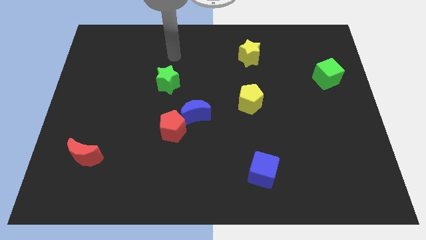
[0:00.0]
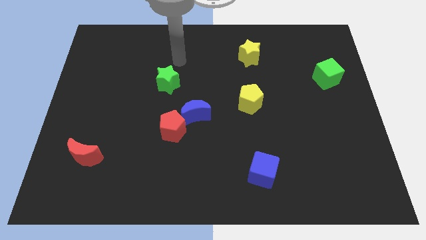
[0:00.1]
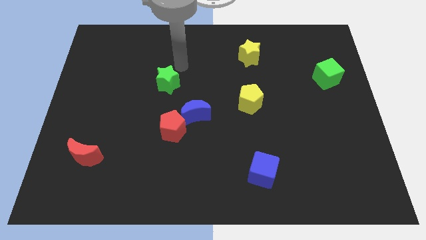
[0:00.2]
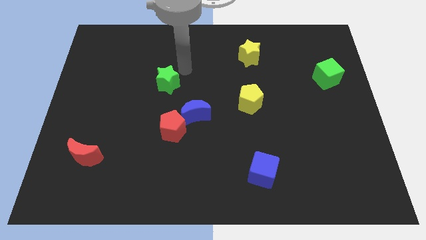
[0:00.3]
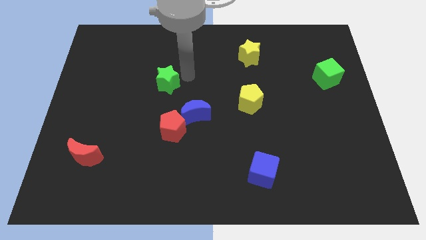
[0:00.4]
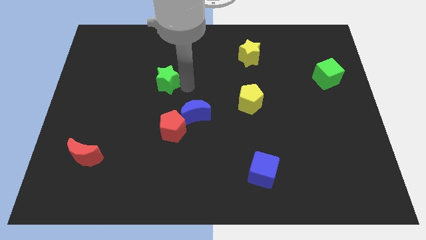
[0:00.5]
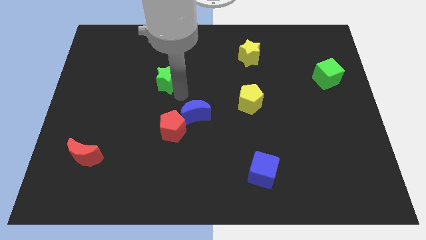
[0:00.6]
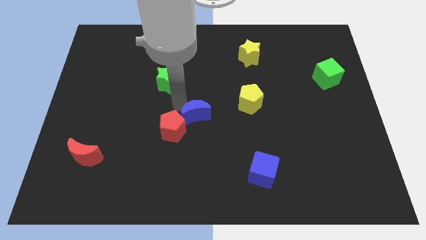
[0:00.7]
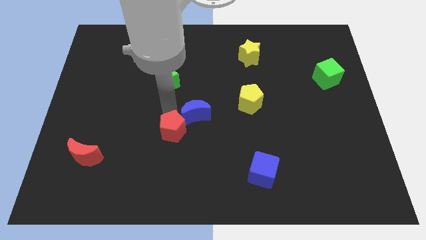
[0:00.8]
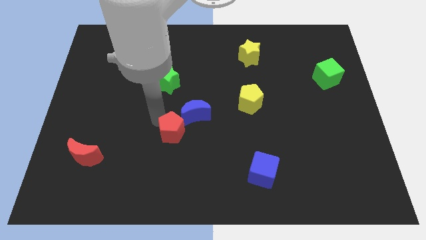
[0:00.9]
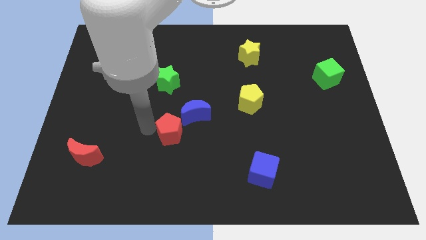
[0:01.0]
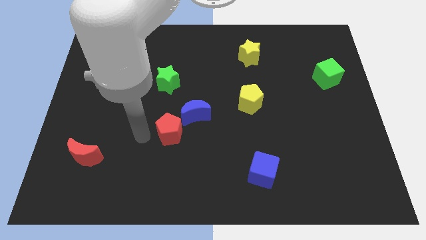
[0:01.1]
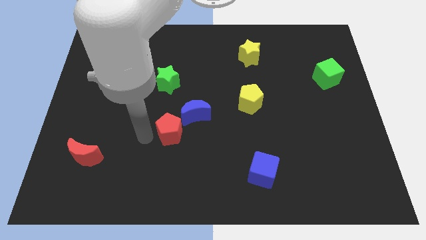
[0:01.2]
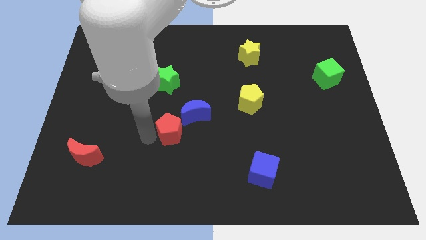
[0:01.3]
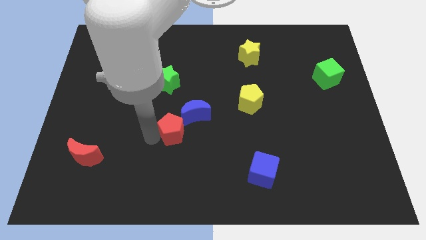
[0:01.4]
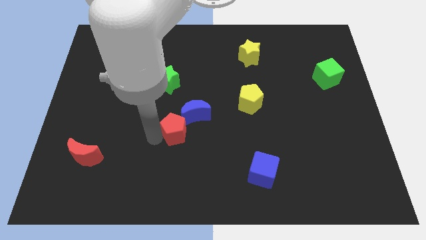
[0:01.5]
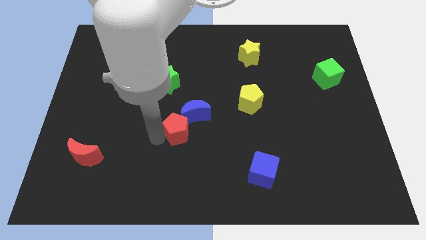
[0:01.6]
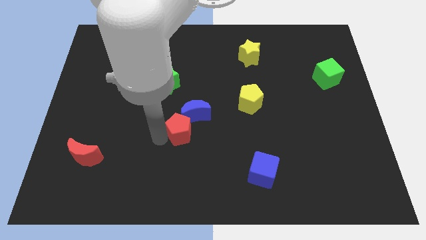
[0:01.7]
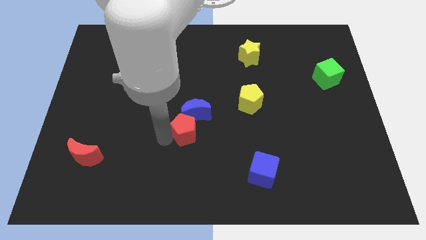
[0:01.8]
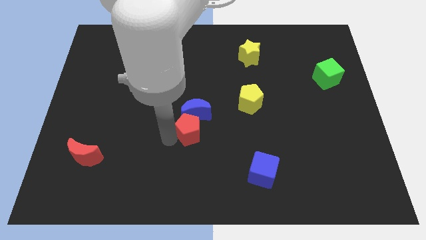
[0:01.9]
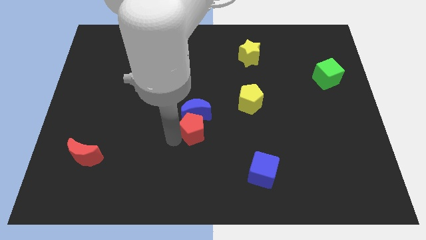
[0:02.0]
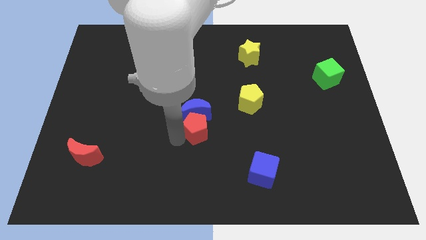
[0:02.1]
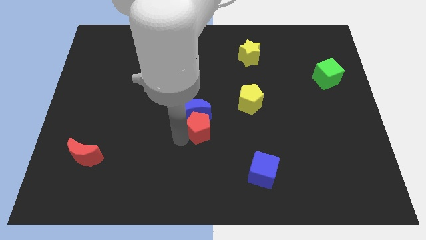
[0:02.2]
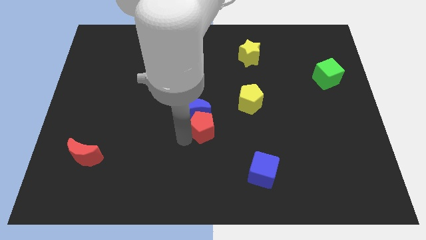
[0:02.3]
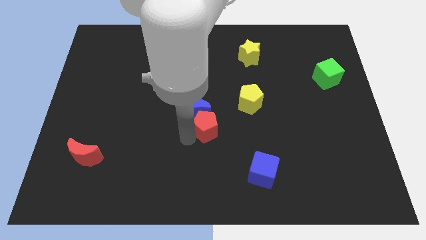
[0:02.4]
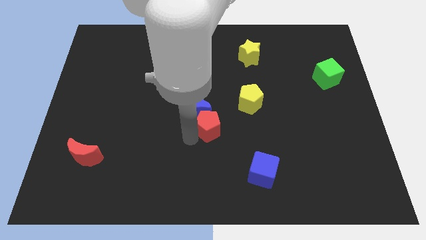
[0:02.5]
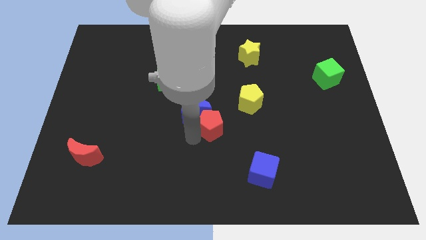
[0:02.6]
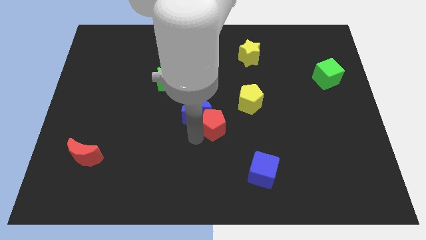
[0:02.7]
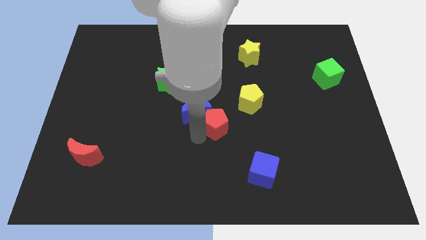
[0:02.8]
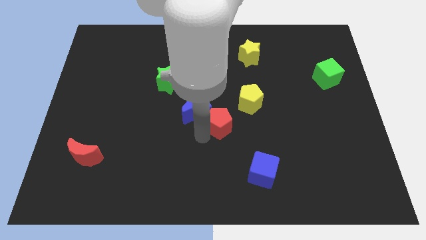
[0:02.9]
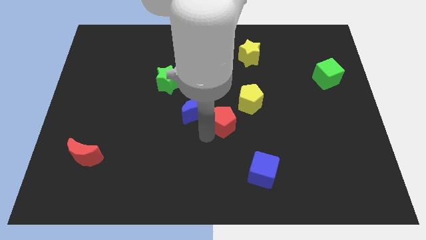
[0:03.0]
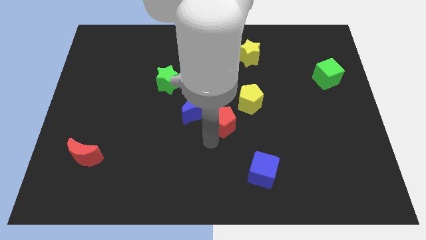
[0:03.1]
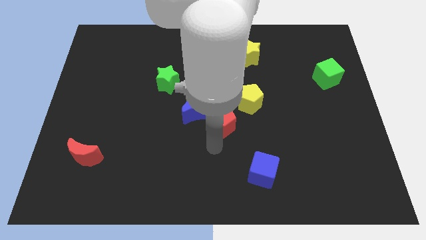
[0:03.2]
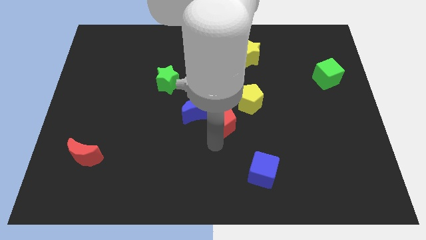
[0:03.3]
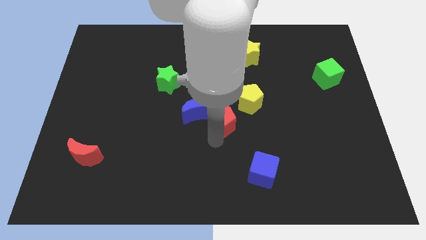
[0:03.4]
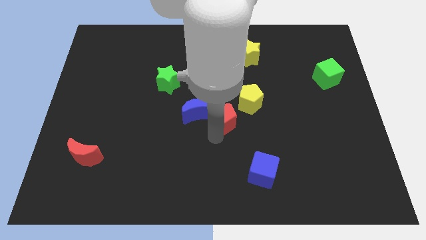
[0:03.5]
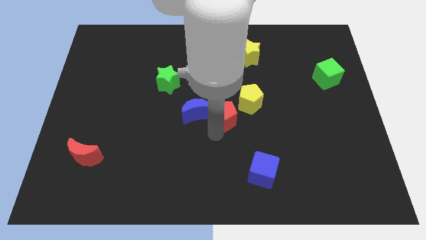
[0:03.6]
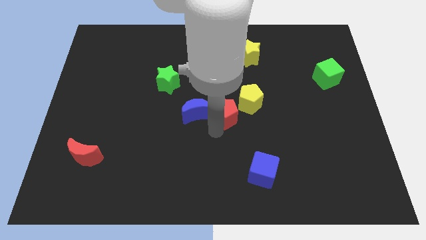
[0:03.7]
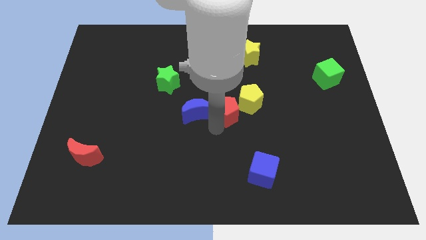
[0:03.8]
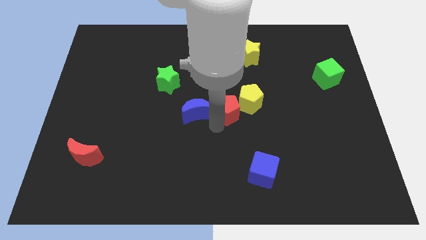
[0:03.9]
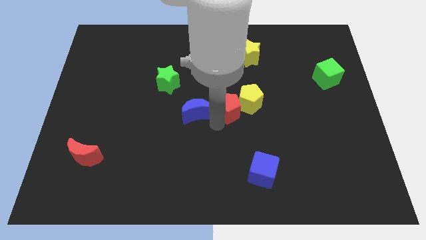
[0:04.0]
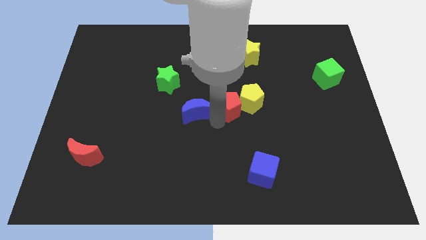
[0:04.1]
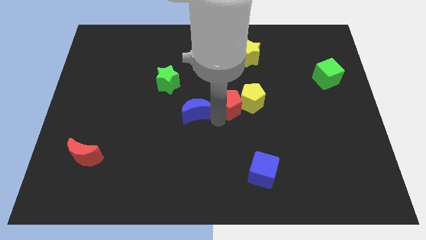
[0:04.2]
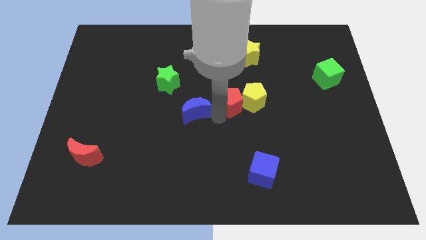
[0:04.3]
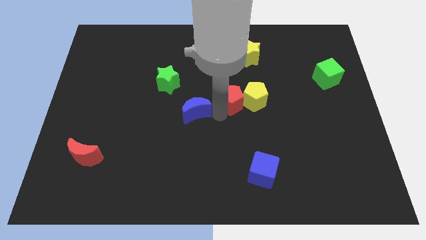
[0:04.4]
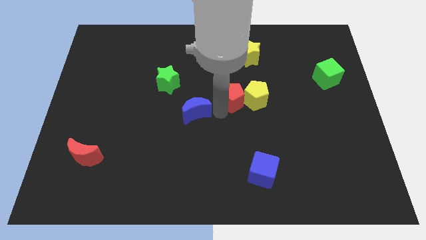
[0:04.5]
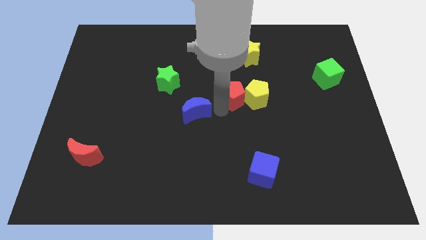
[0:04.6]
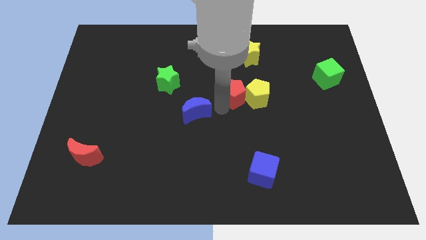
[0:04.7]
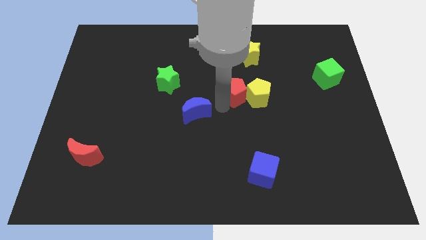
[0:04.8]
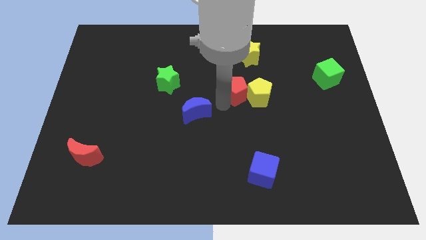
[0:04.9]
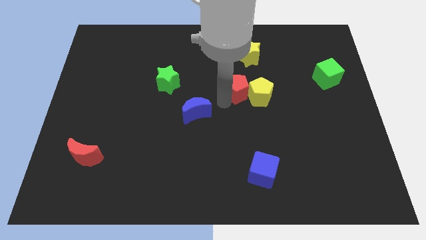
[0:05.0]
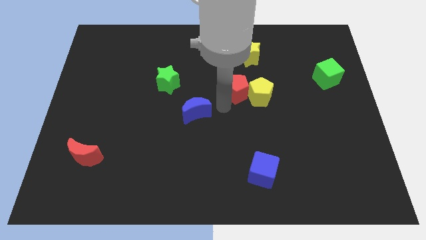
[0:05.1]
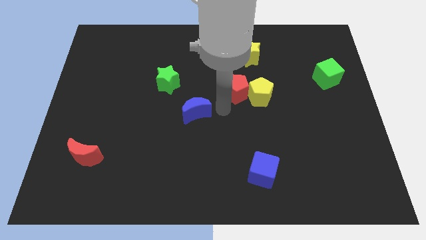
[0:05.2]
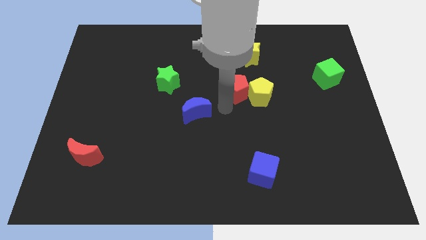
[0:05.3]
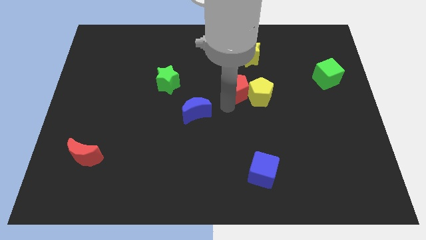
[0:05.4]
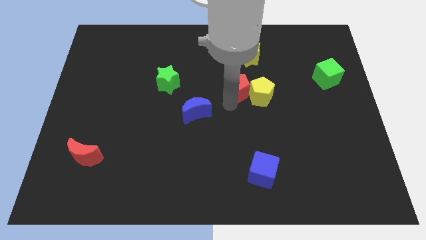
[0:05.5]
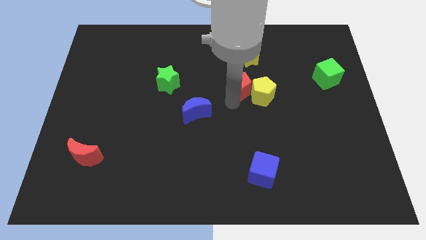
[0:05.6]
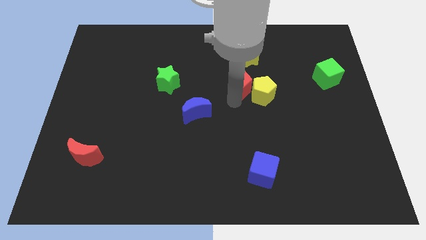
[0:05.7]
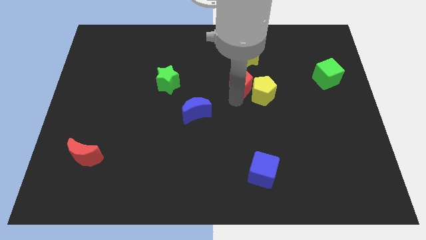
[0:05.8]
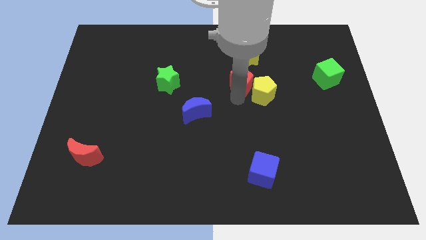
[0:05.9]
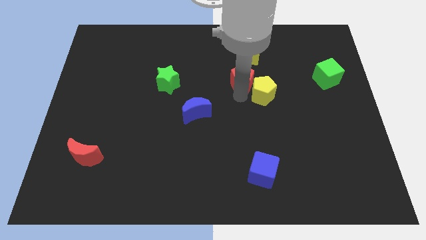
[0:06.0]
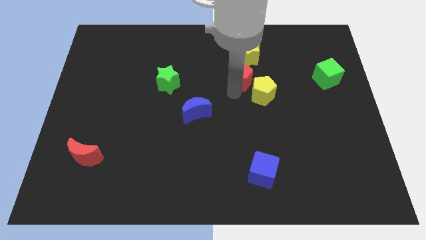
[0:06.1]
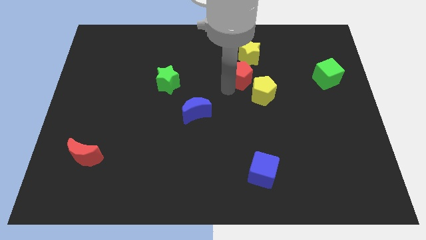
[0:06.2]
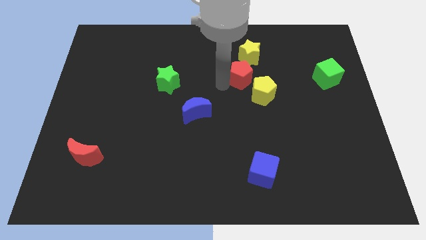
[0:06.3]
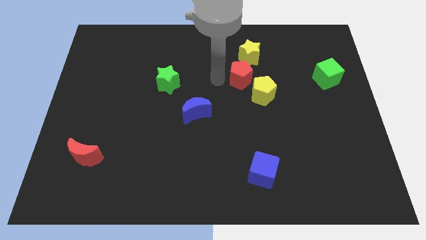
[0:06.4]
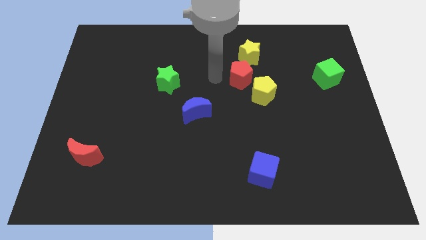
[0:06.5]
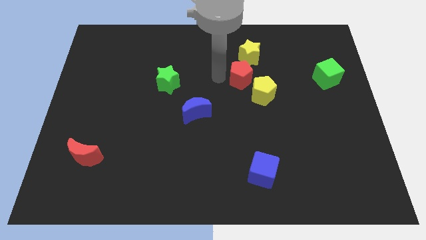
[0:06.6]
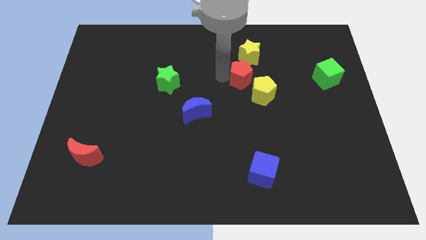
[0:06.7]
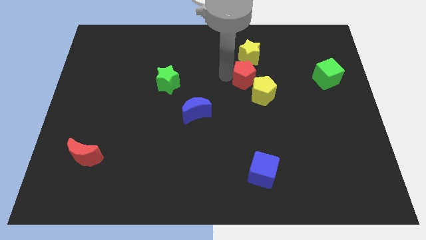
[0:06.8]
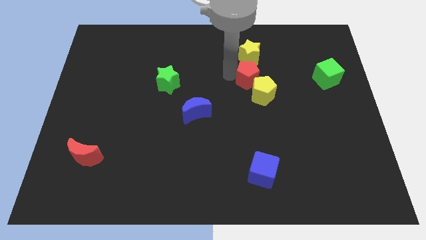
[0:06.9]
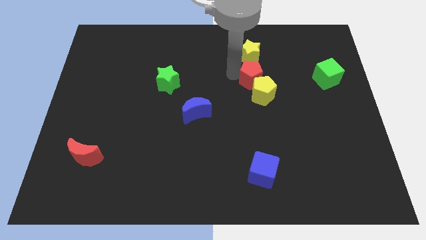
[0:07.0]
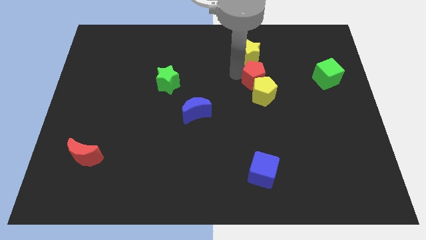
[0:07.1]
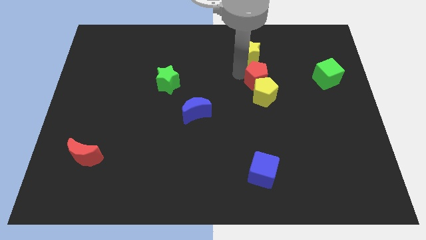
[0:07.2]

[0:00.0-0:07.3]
put the red pentagon to the top right side of the yellow pentagon

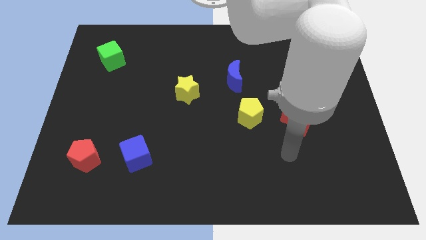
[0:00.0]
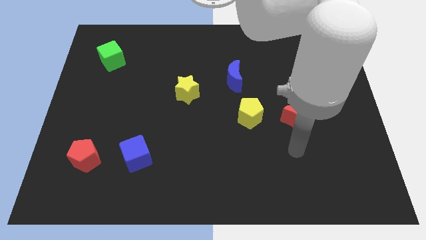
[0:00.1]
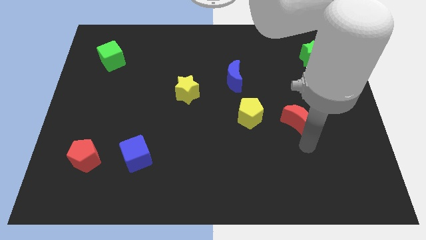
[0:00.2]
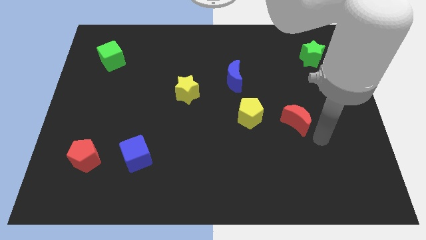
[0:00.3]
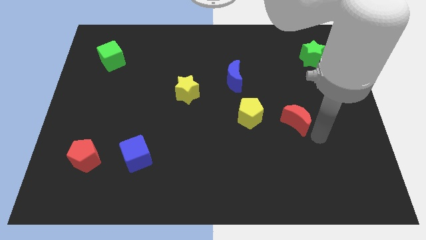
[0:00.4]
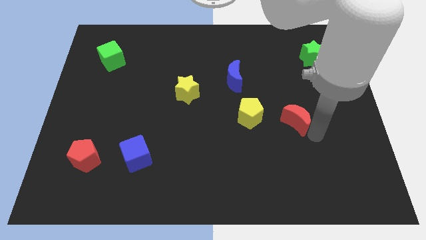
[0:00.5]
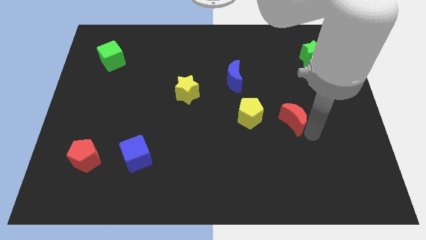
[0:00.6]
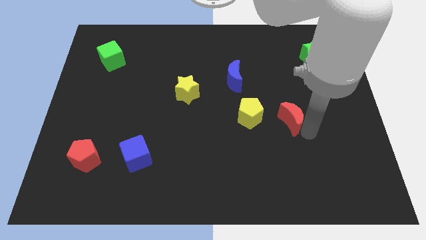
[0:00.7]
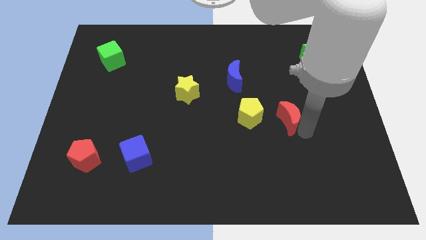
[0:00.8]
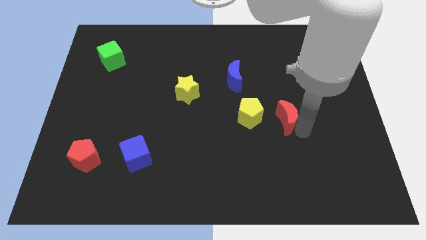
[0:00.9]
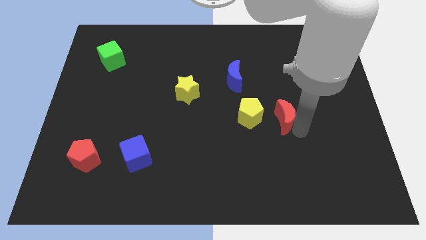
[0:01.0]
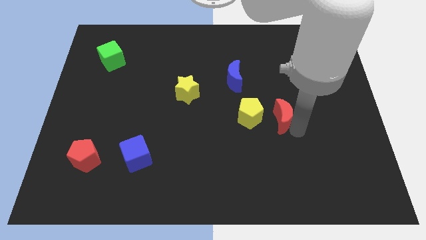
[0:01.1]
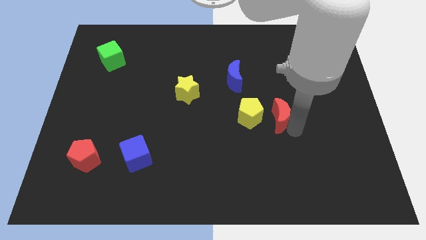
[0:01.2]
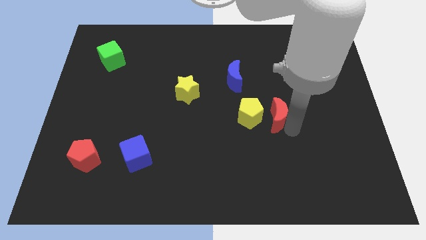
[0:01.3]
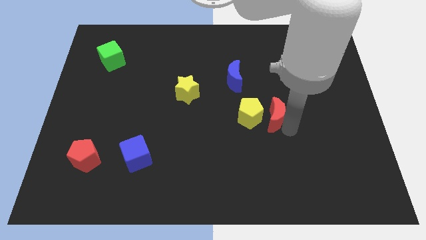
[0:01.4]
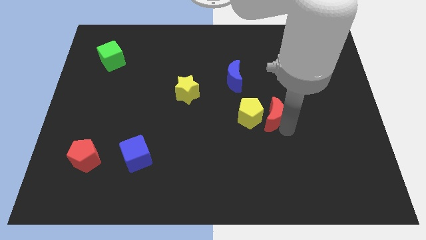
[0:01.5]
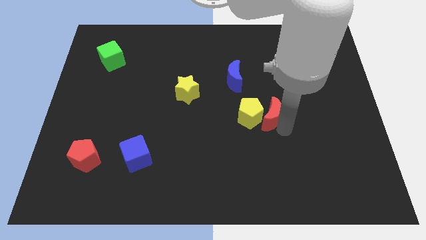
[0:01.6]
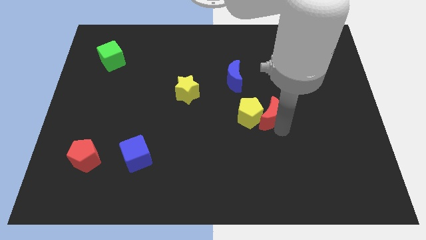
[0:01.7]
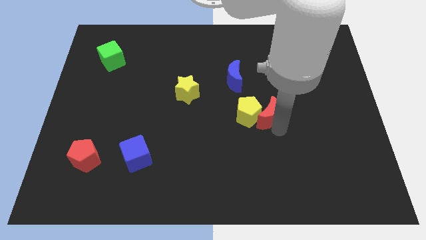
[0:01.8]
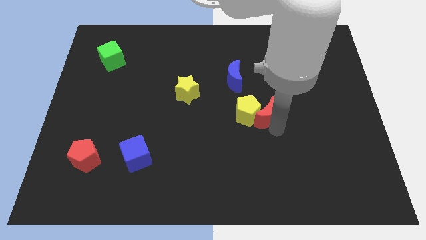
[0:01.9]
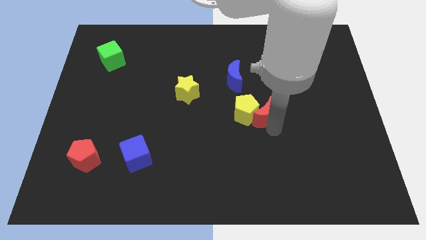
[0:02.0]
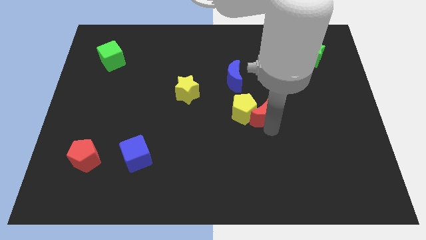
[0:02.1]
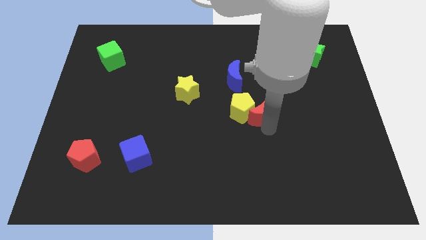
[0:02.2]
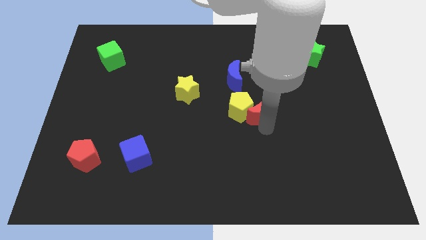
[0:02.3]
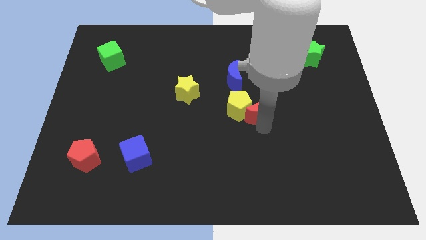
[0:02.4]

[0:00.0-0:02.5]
push the red moon to the bottom right side of the blue moon
